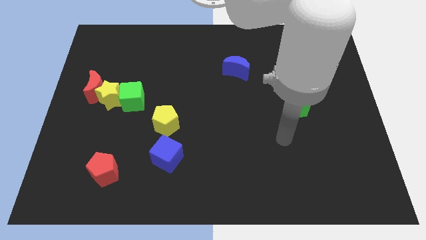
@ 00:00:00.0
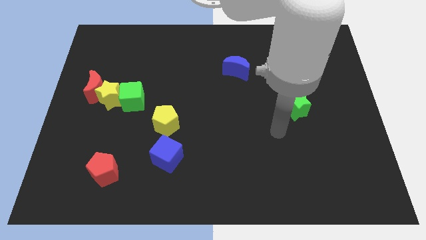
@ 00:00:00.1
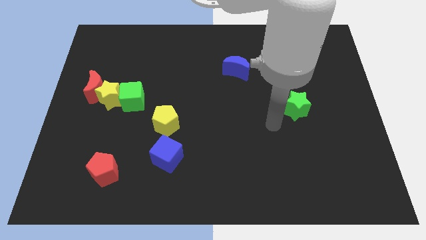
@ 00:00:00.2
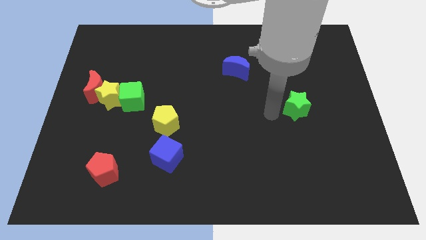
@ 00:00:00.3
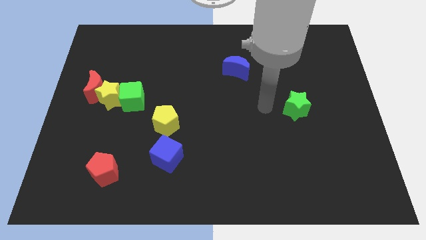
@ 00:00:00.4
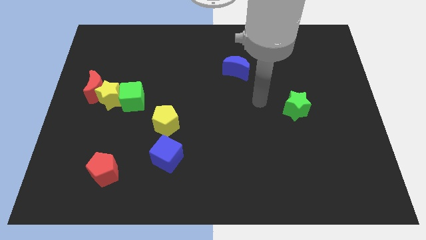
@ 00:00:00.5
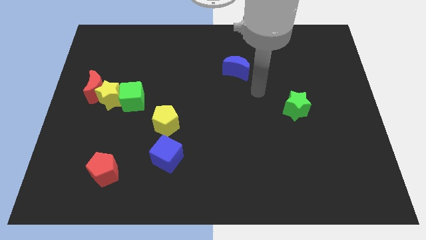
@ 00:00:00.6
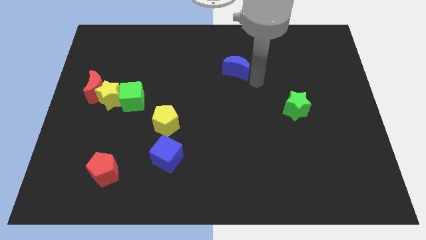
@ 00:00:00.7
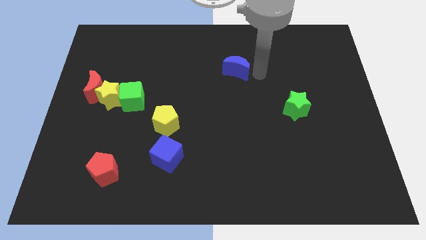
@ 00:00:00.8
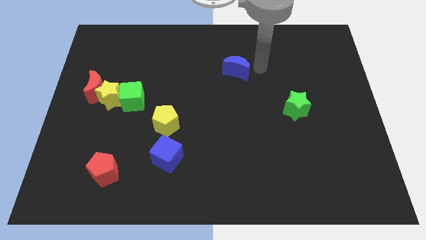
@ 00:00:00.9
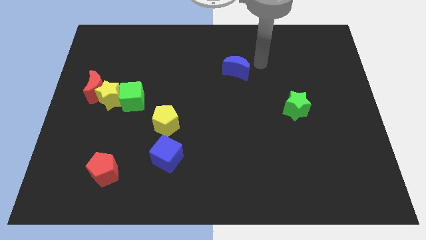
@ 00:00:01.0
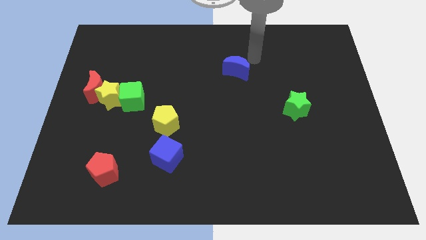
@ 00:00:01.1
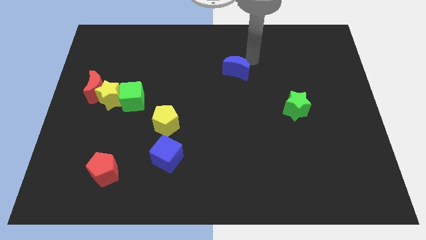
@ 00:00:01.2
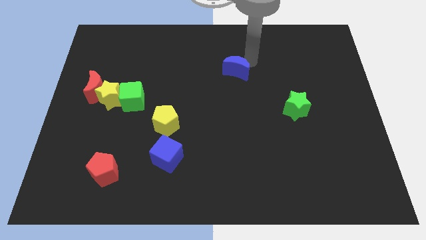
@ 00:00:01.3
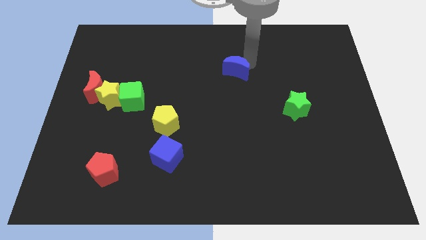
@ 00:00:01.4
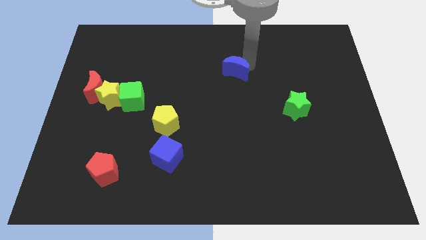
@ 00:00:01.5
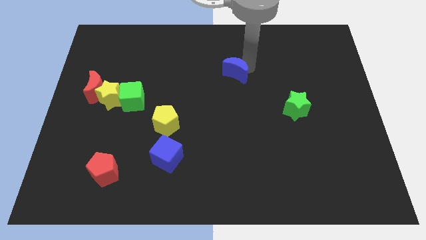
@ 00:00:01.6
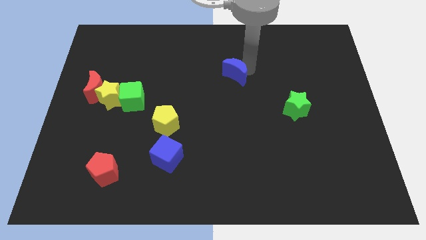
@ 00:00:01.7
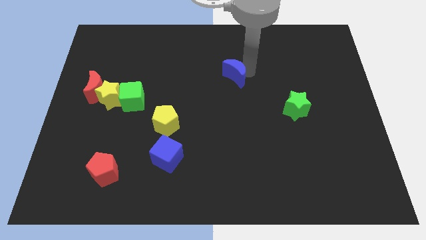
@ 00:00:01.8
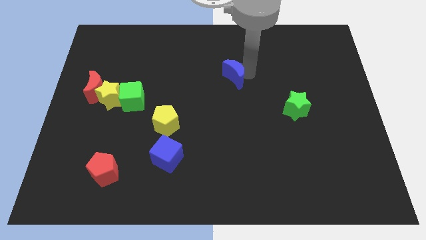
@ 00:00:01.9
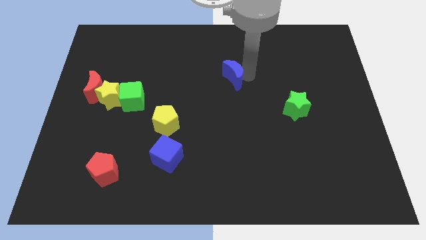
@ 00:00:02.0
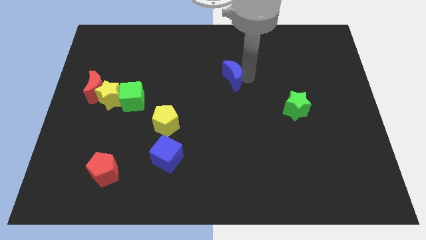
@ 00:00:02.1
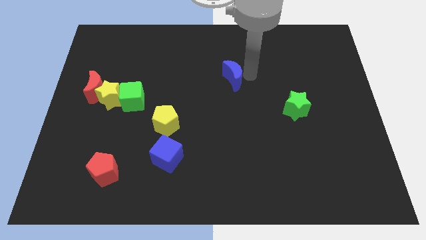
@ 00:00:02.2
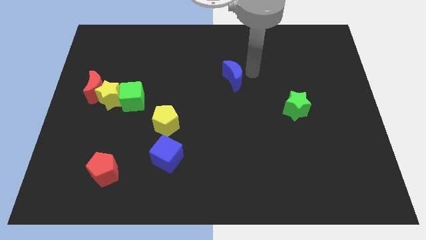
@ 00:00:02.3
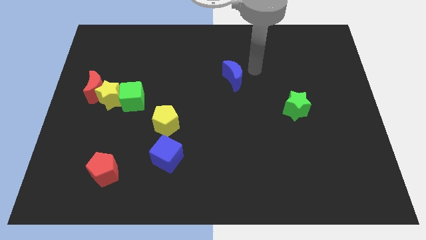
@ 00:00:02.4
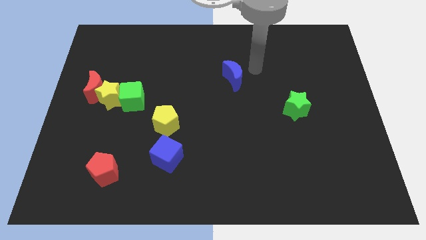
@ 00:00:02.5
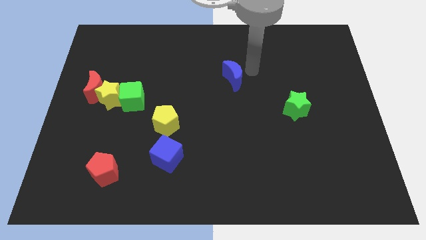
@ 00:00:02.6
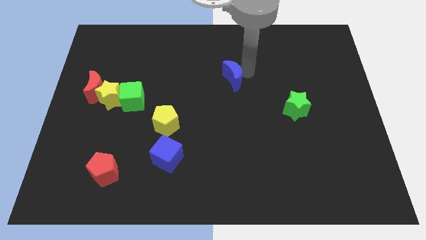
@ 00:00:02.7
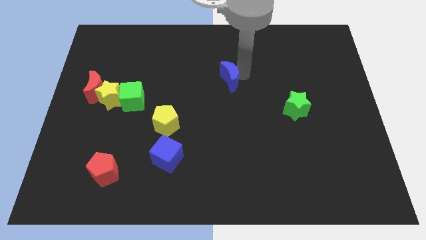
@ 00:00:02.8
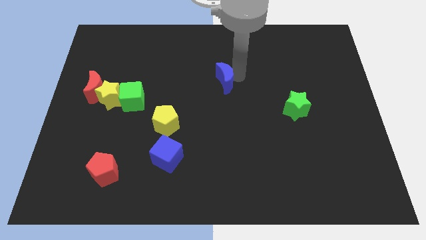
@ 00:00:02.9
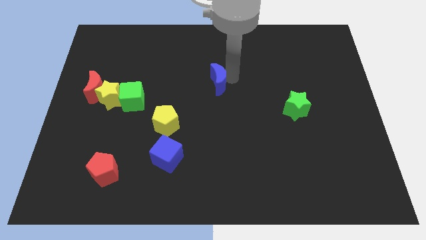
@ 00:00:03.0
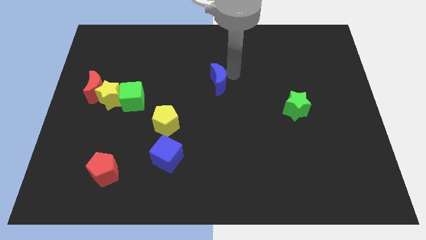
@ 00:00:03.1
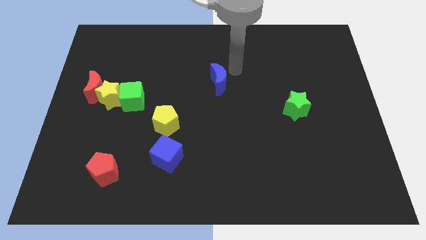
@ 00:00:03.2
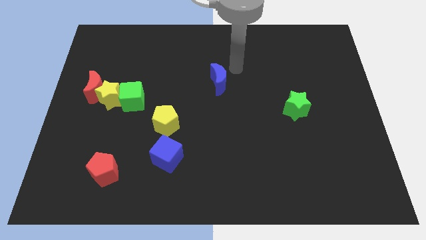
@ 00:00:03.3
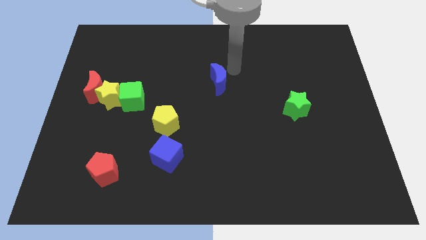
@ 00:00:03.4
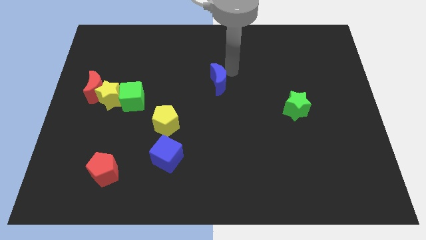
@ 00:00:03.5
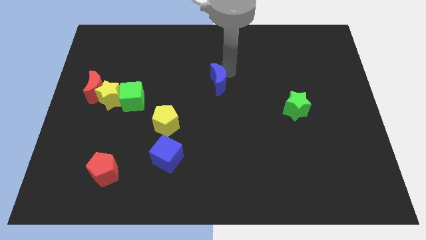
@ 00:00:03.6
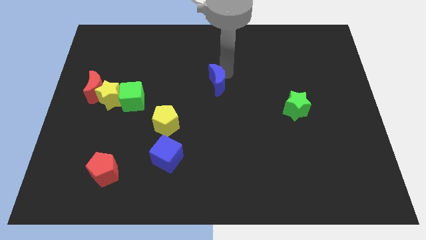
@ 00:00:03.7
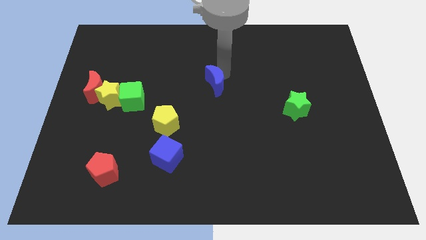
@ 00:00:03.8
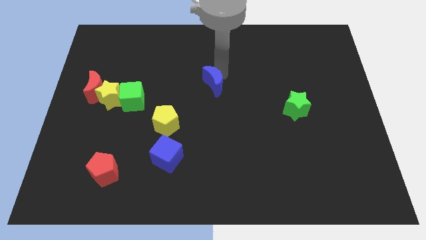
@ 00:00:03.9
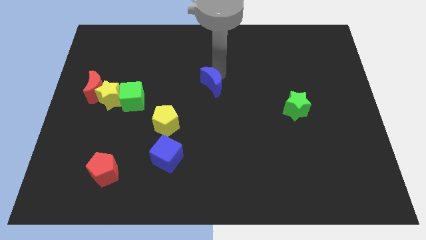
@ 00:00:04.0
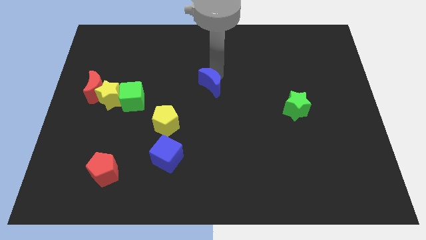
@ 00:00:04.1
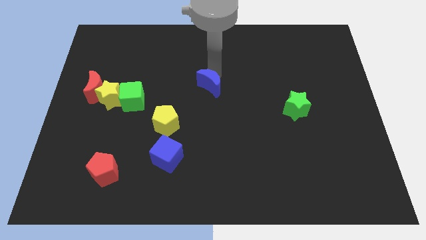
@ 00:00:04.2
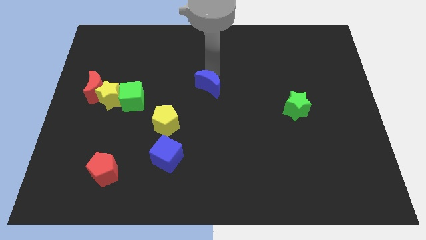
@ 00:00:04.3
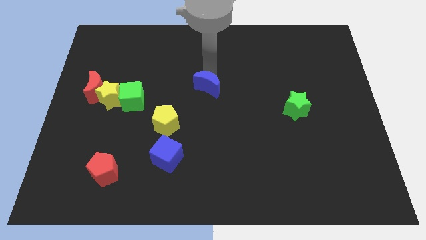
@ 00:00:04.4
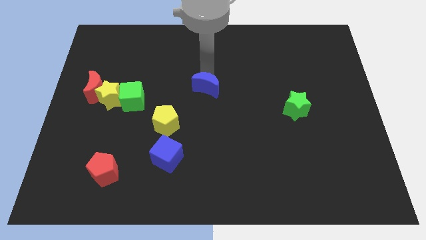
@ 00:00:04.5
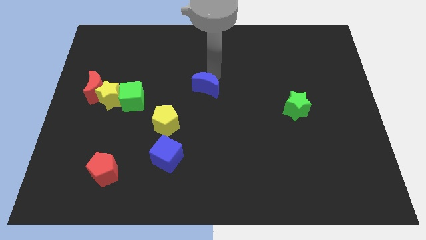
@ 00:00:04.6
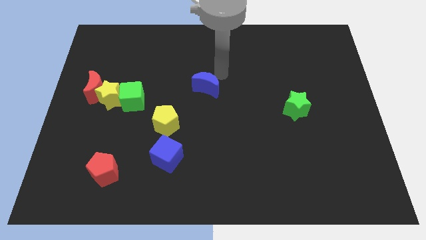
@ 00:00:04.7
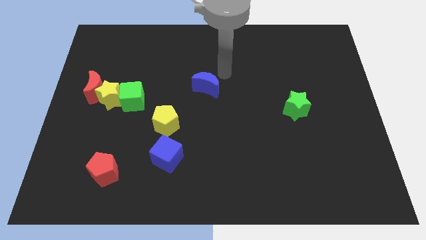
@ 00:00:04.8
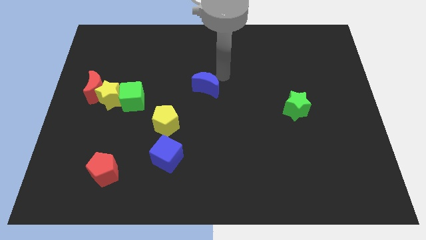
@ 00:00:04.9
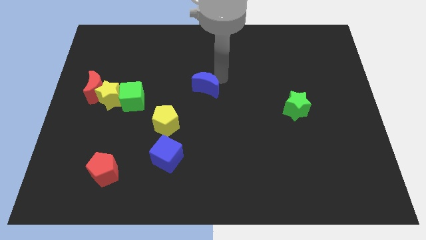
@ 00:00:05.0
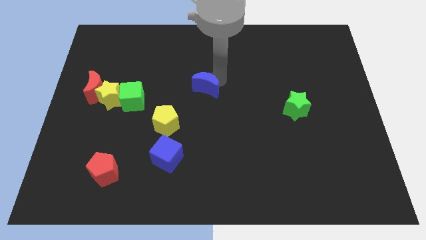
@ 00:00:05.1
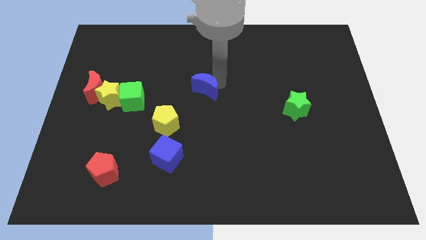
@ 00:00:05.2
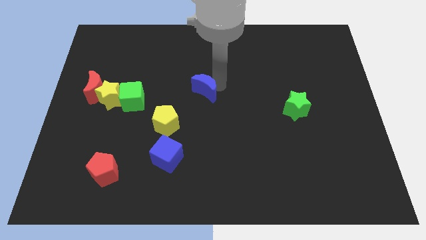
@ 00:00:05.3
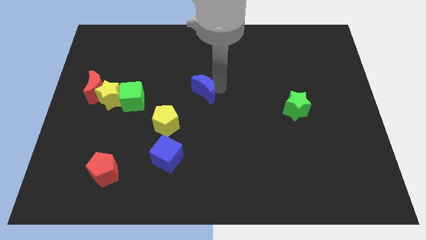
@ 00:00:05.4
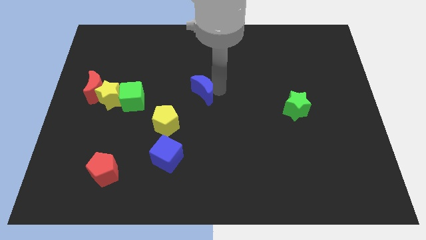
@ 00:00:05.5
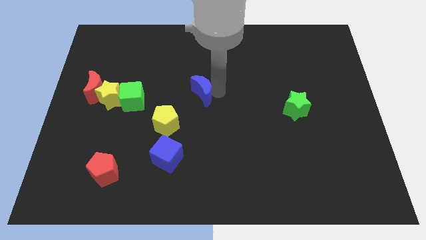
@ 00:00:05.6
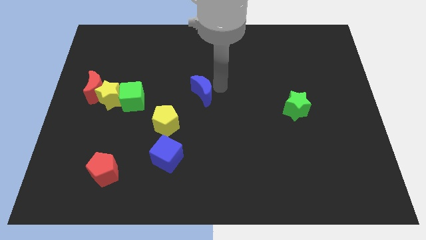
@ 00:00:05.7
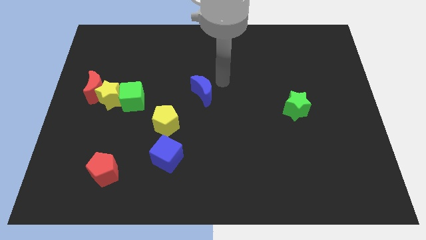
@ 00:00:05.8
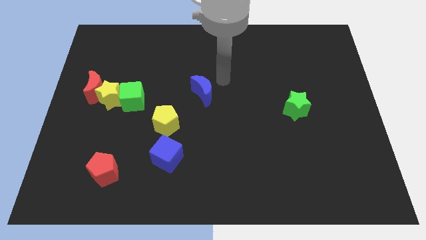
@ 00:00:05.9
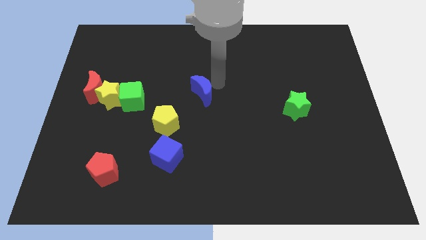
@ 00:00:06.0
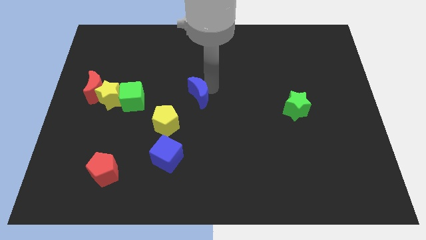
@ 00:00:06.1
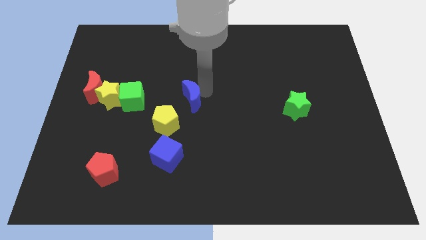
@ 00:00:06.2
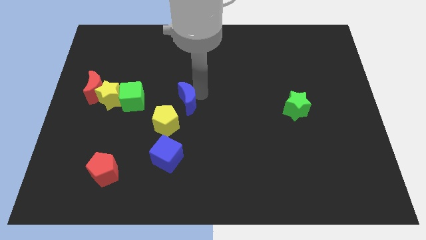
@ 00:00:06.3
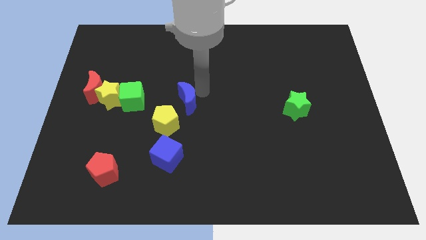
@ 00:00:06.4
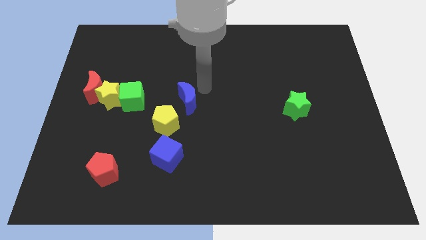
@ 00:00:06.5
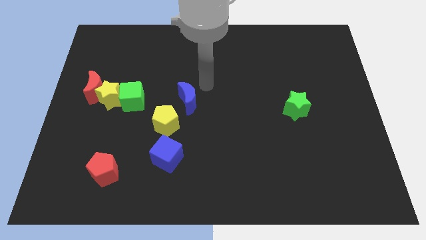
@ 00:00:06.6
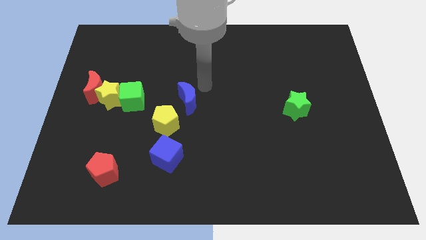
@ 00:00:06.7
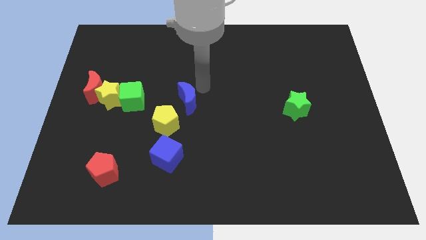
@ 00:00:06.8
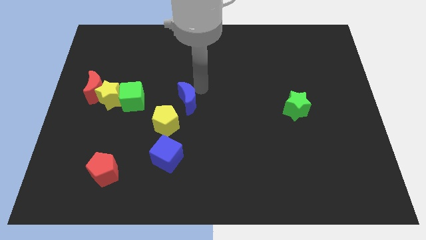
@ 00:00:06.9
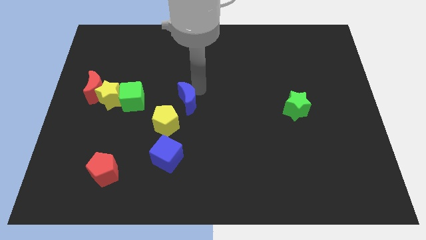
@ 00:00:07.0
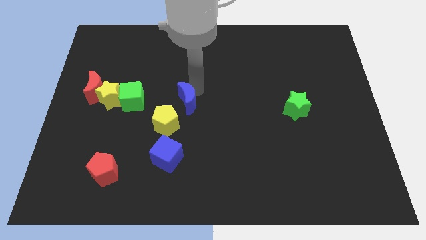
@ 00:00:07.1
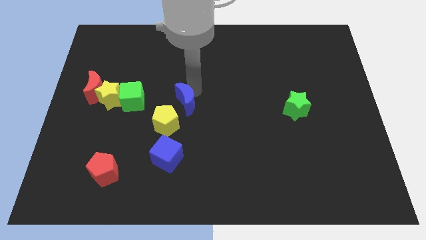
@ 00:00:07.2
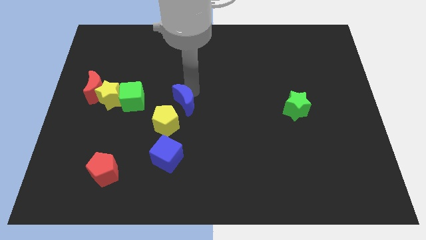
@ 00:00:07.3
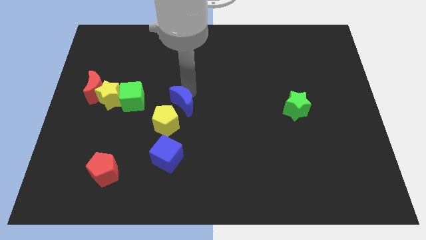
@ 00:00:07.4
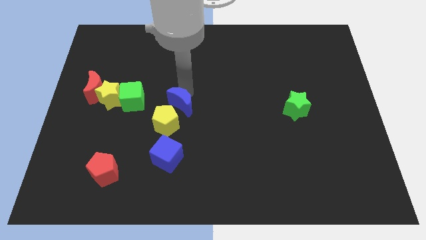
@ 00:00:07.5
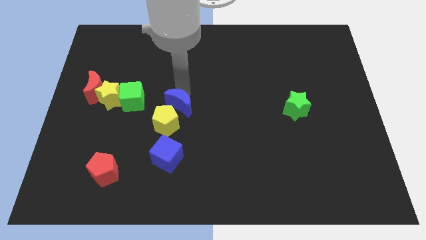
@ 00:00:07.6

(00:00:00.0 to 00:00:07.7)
push the blue moon close to the yellow pentagon
